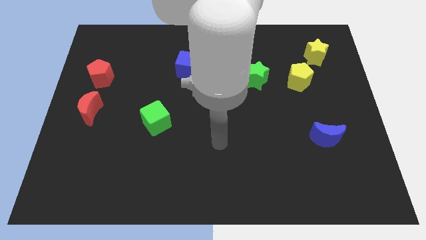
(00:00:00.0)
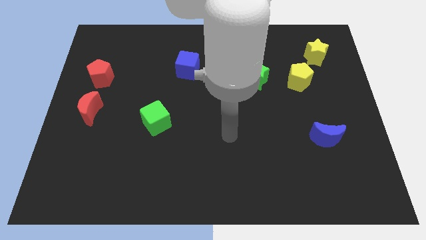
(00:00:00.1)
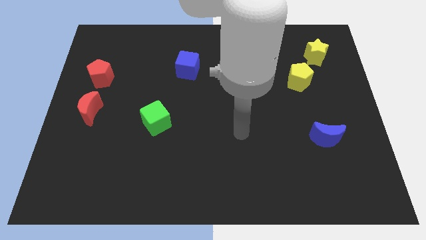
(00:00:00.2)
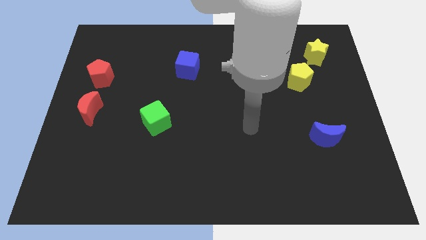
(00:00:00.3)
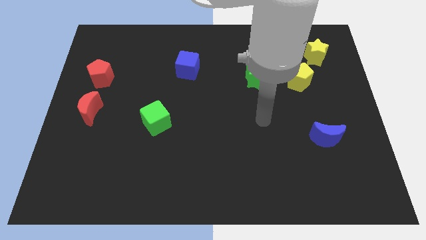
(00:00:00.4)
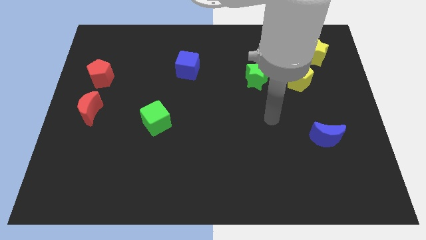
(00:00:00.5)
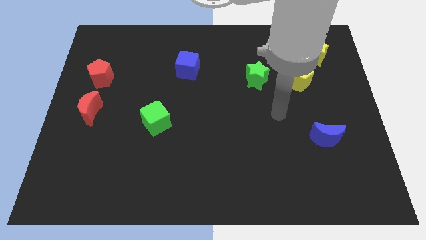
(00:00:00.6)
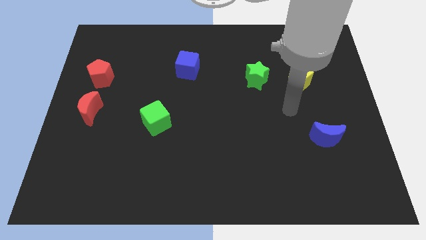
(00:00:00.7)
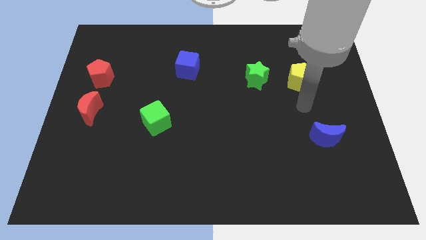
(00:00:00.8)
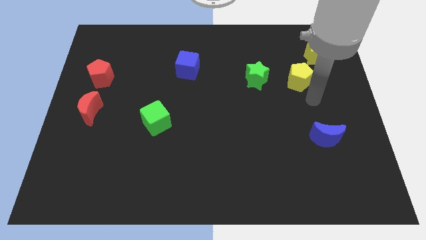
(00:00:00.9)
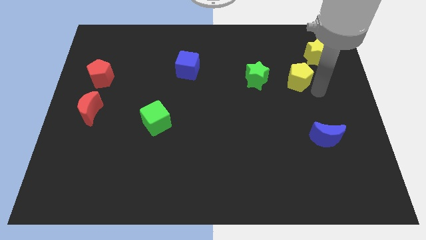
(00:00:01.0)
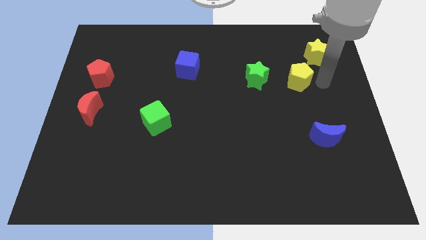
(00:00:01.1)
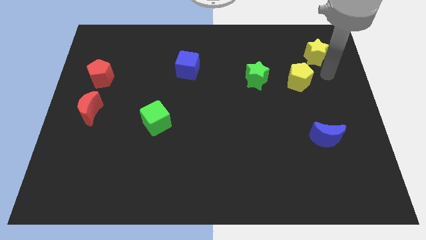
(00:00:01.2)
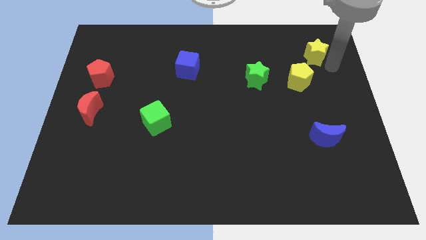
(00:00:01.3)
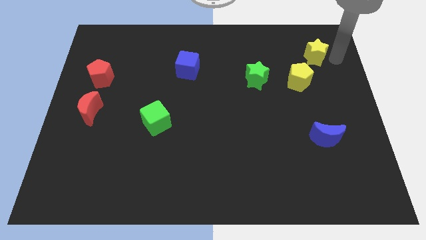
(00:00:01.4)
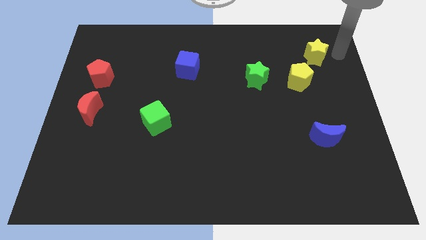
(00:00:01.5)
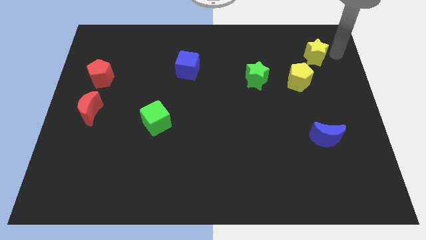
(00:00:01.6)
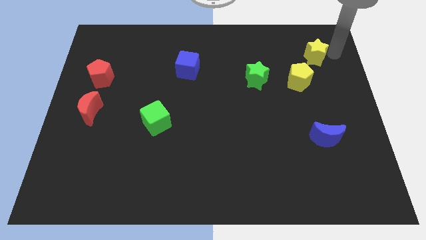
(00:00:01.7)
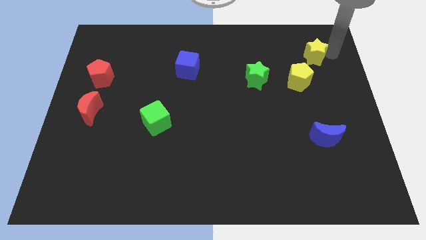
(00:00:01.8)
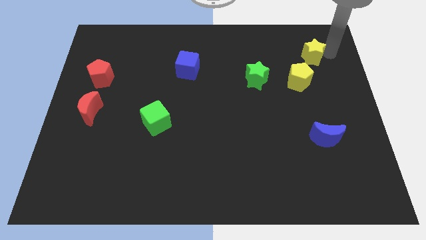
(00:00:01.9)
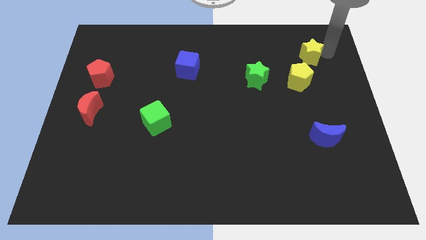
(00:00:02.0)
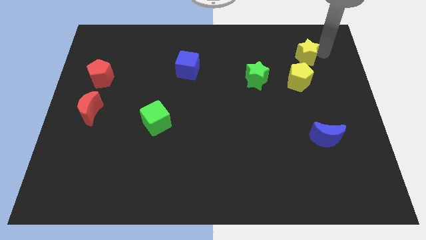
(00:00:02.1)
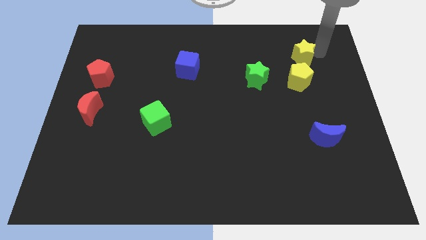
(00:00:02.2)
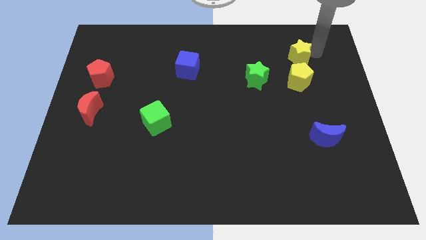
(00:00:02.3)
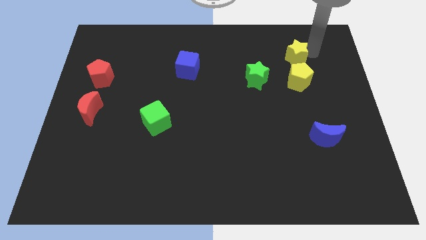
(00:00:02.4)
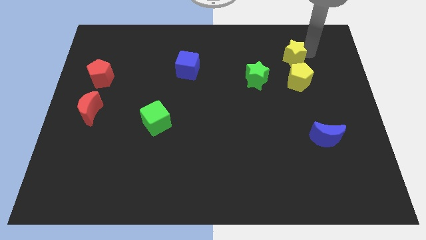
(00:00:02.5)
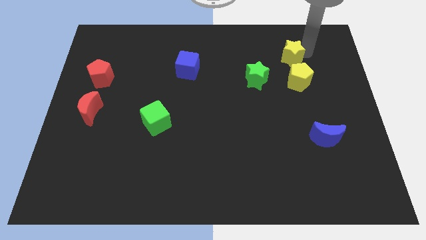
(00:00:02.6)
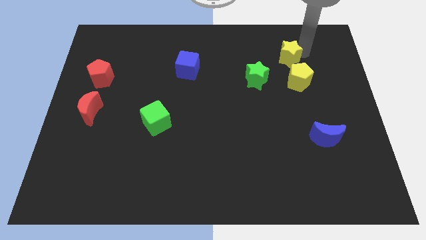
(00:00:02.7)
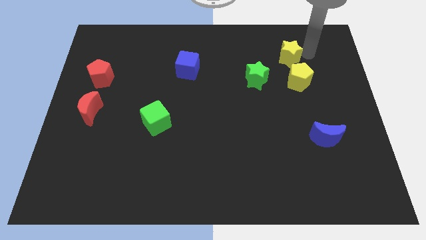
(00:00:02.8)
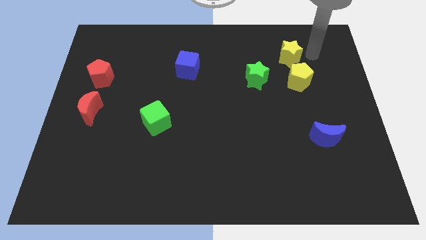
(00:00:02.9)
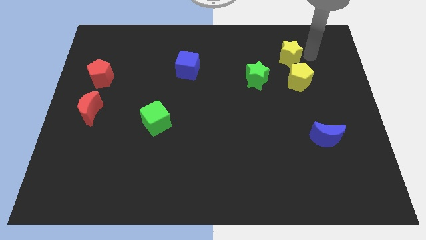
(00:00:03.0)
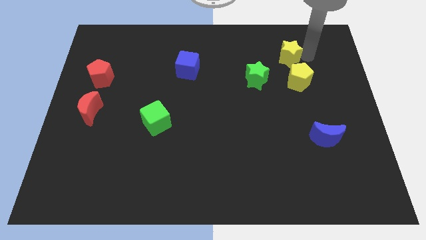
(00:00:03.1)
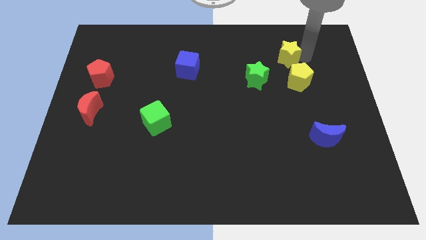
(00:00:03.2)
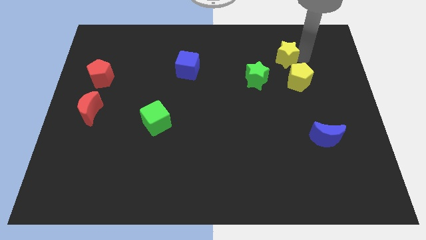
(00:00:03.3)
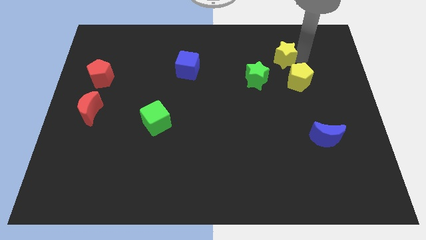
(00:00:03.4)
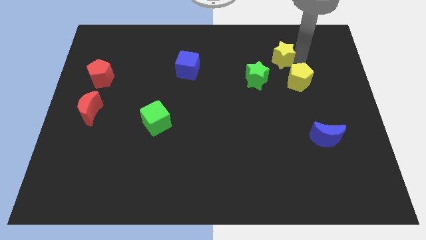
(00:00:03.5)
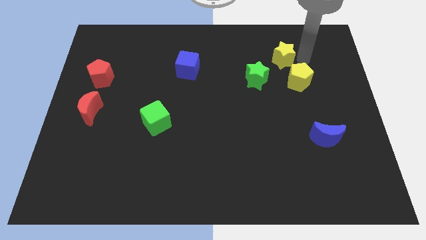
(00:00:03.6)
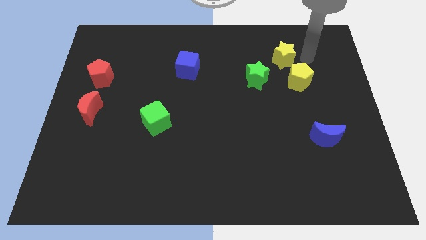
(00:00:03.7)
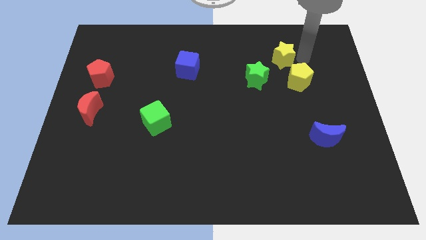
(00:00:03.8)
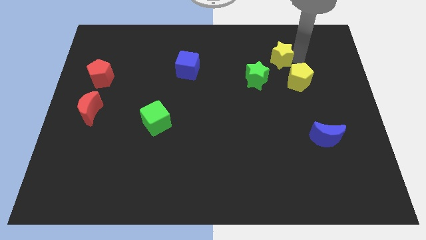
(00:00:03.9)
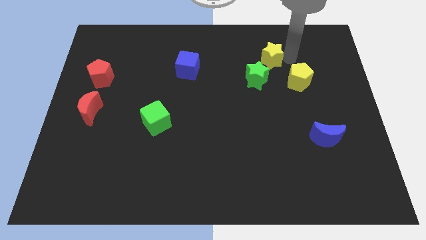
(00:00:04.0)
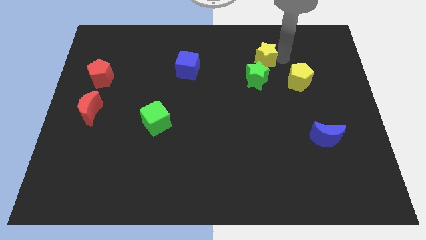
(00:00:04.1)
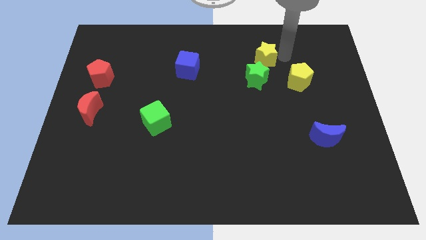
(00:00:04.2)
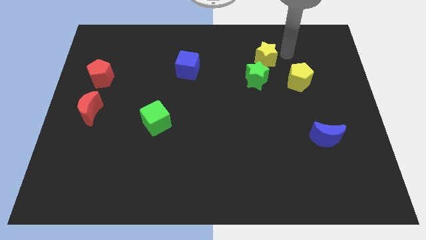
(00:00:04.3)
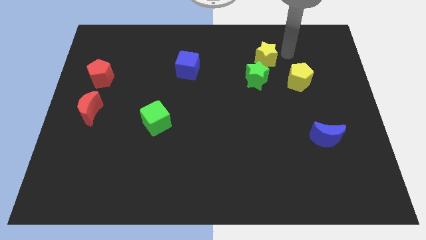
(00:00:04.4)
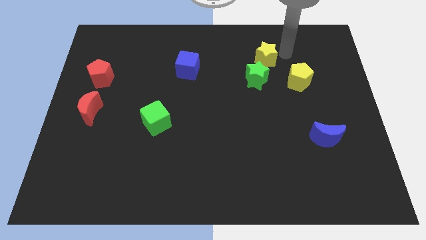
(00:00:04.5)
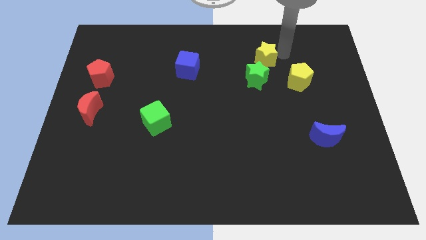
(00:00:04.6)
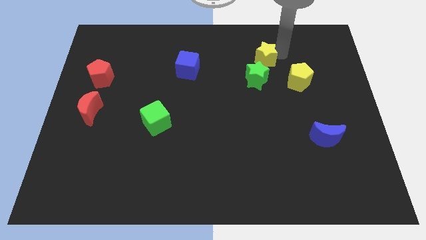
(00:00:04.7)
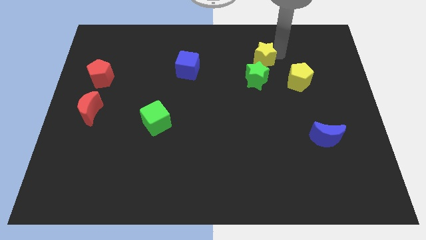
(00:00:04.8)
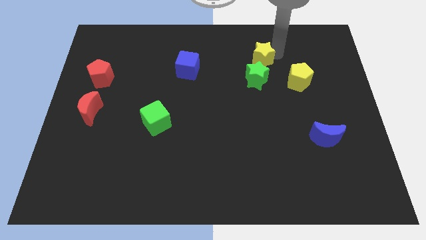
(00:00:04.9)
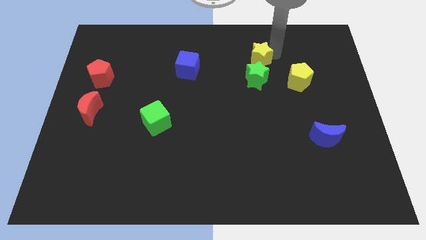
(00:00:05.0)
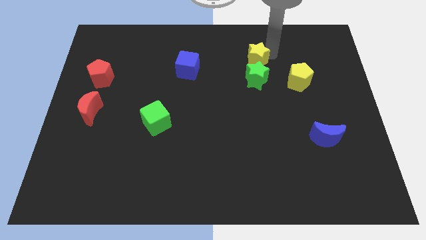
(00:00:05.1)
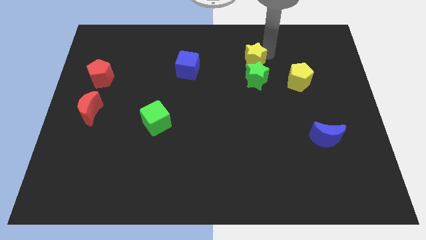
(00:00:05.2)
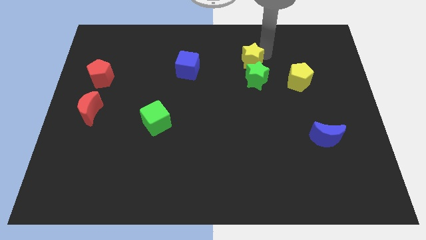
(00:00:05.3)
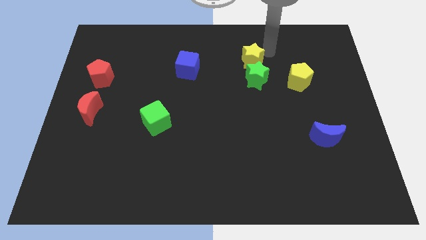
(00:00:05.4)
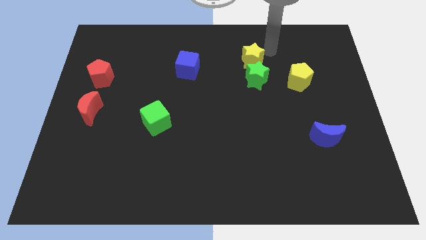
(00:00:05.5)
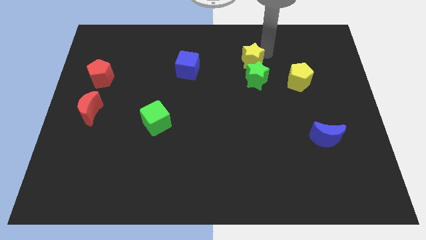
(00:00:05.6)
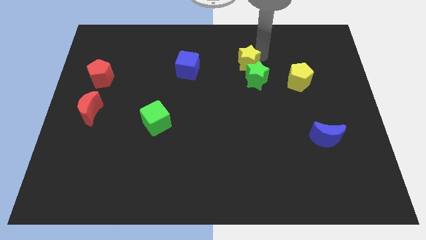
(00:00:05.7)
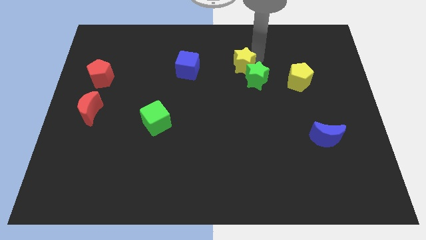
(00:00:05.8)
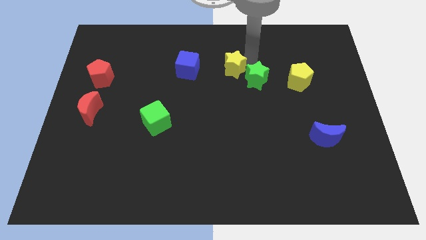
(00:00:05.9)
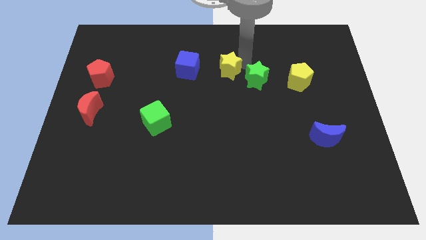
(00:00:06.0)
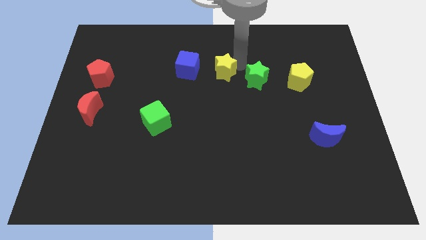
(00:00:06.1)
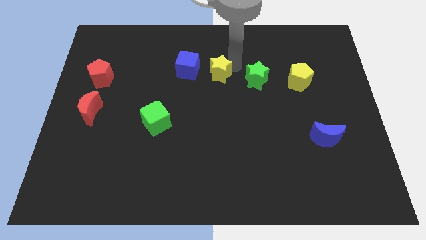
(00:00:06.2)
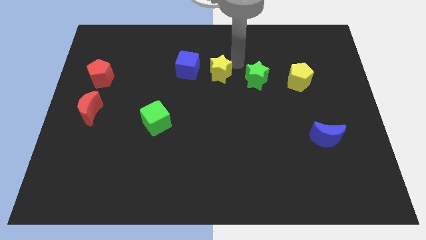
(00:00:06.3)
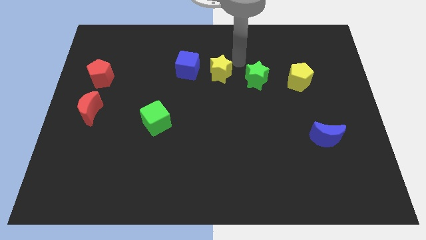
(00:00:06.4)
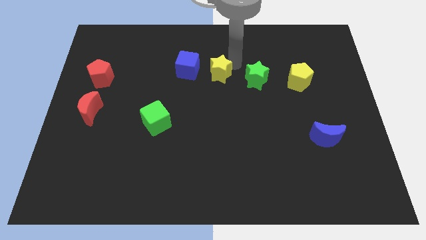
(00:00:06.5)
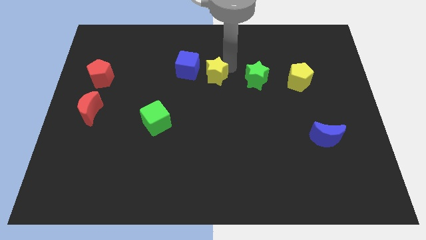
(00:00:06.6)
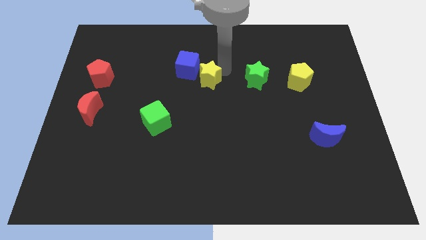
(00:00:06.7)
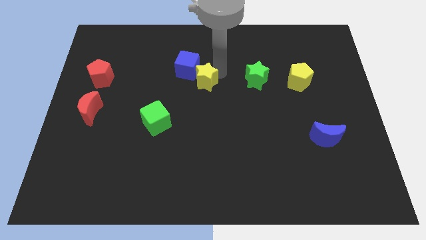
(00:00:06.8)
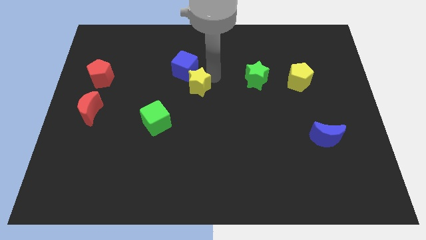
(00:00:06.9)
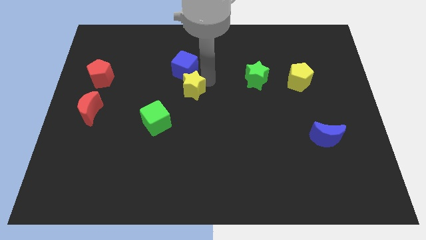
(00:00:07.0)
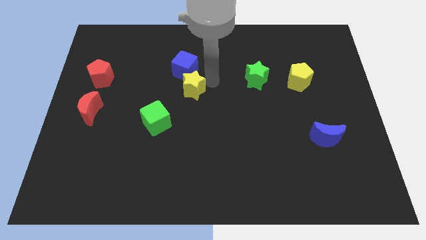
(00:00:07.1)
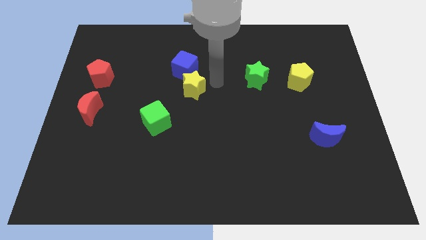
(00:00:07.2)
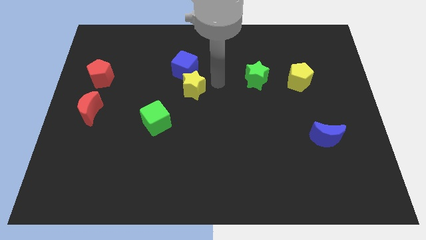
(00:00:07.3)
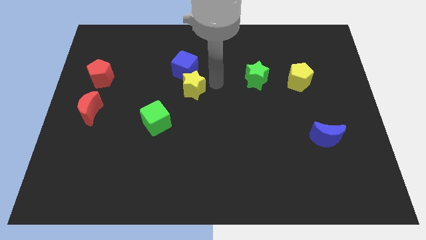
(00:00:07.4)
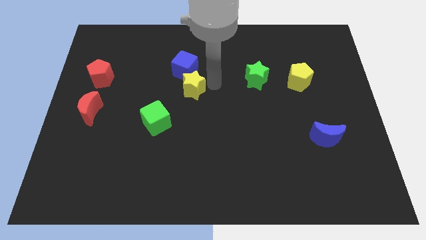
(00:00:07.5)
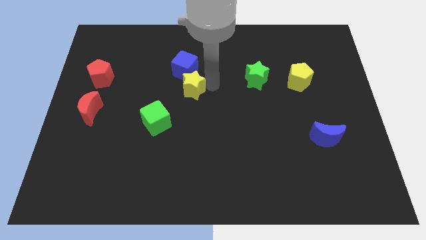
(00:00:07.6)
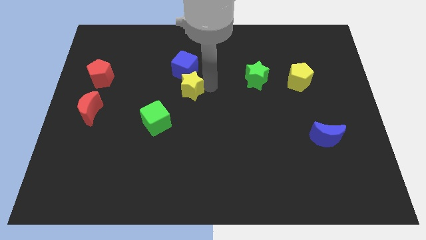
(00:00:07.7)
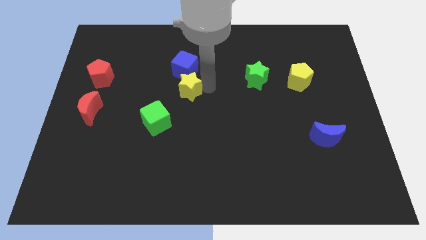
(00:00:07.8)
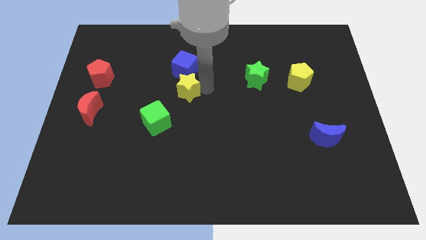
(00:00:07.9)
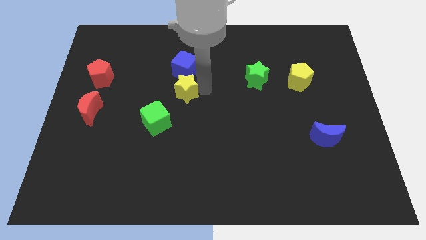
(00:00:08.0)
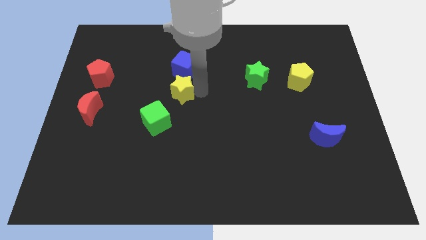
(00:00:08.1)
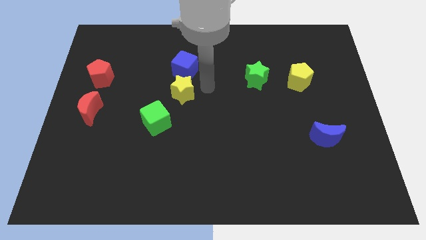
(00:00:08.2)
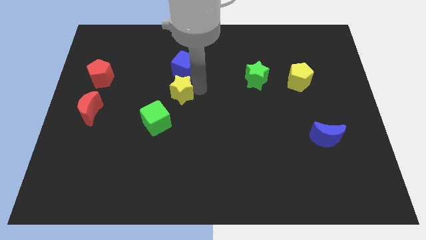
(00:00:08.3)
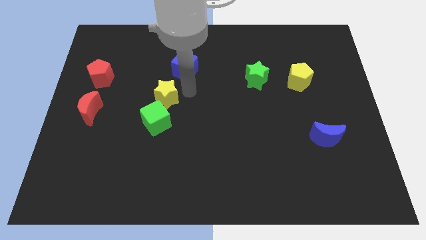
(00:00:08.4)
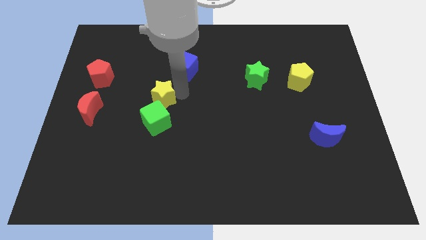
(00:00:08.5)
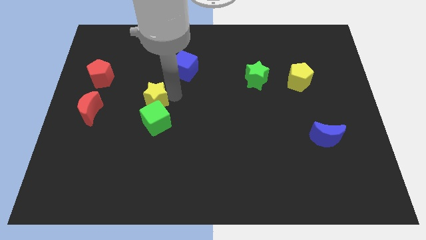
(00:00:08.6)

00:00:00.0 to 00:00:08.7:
put the yellow star to the top left of the green cube
